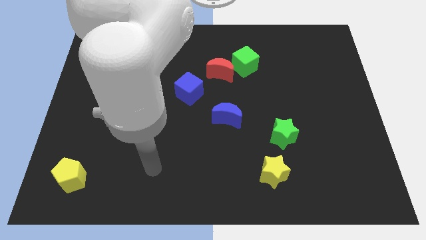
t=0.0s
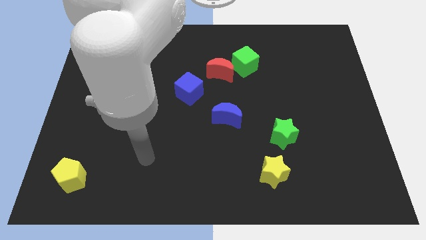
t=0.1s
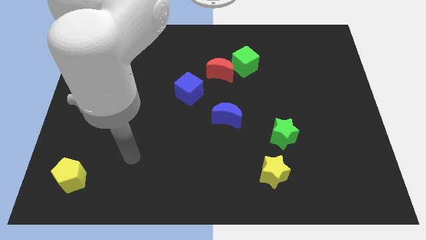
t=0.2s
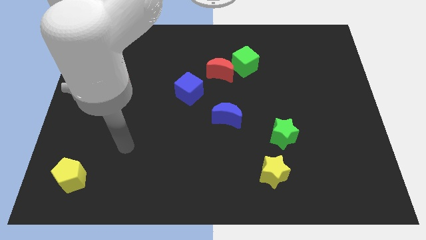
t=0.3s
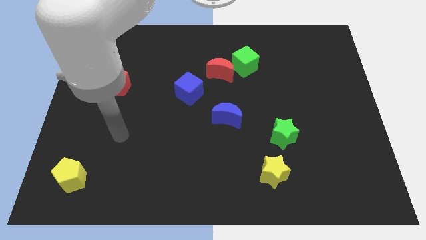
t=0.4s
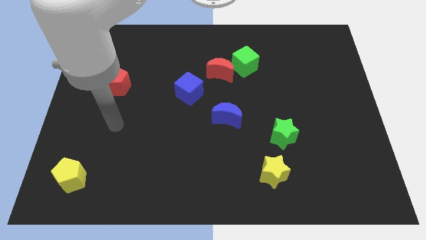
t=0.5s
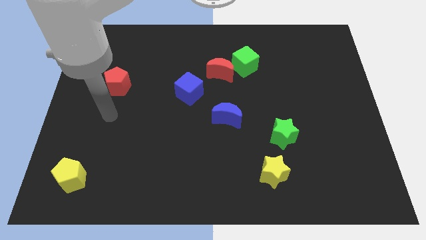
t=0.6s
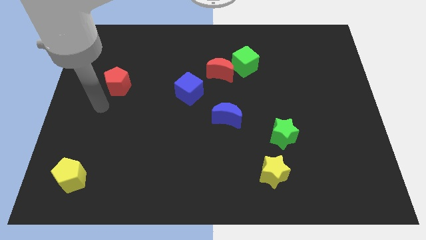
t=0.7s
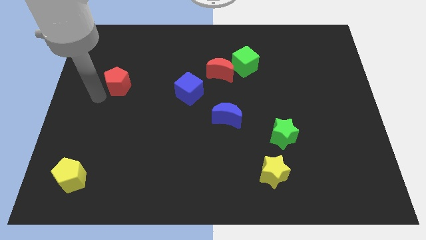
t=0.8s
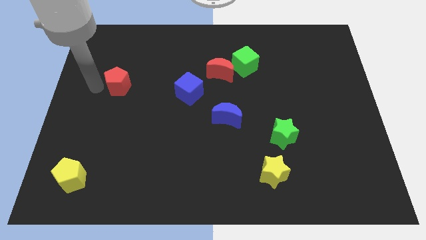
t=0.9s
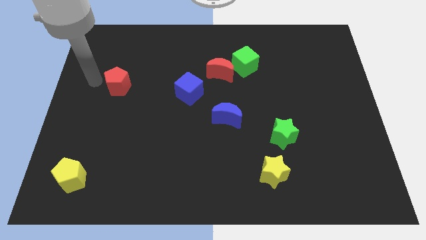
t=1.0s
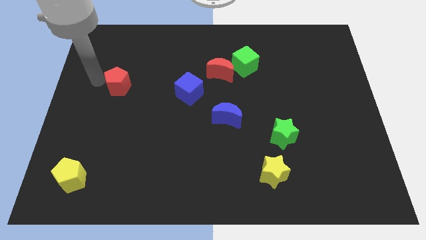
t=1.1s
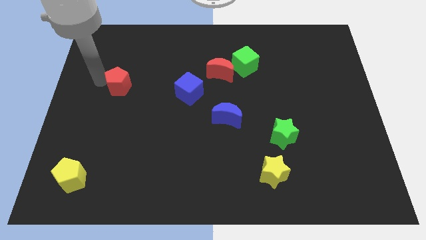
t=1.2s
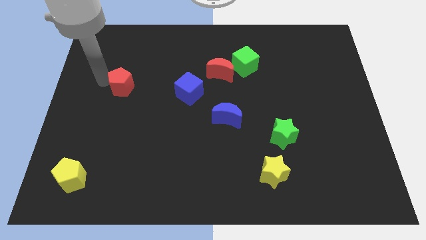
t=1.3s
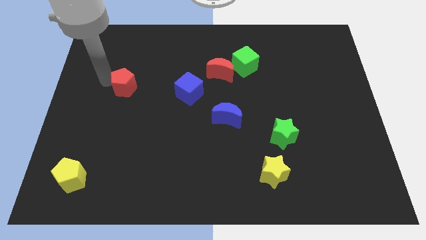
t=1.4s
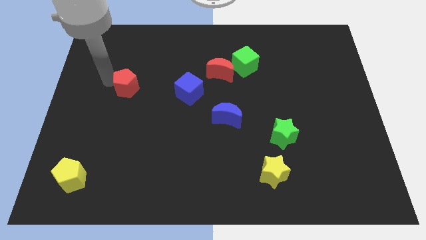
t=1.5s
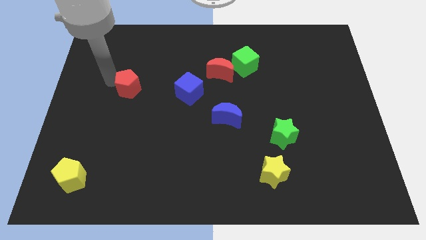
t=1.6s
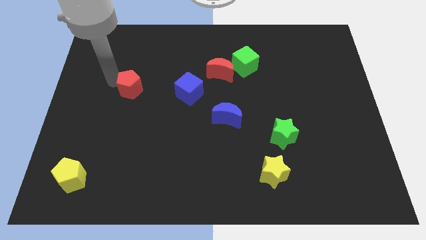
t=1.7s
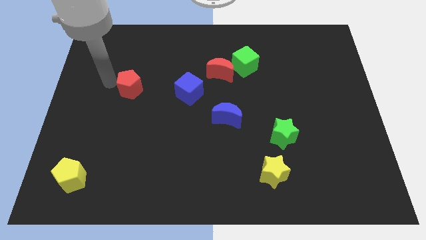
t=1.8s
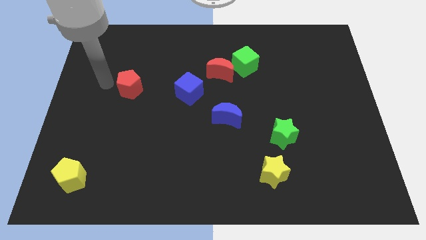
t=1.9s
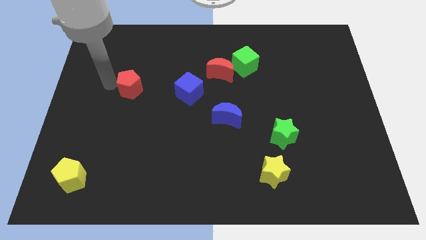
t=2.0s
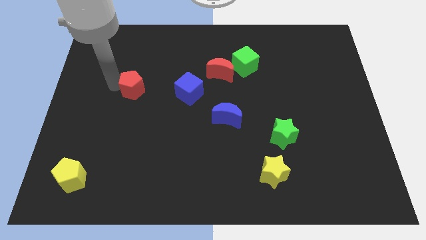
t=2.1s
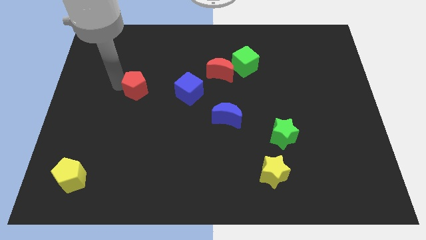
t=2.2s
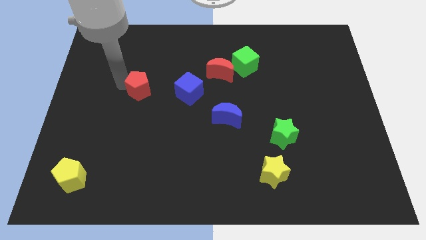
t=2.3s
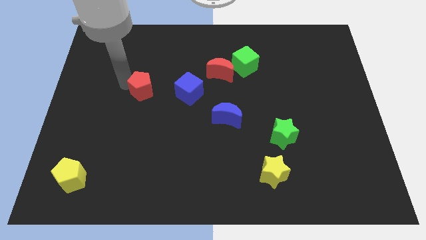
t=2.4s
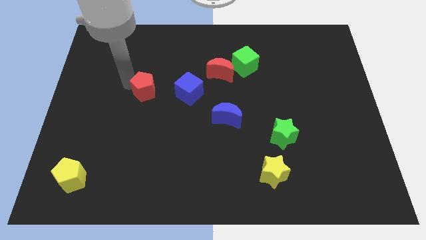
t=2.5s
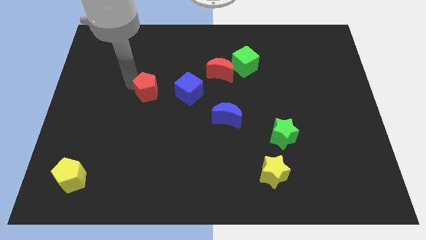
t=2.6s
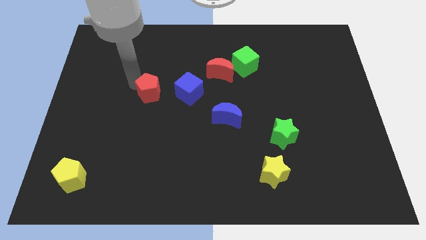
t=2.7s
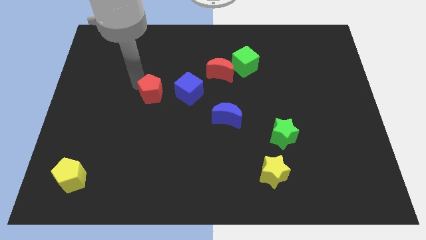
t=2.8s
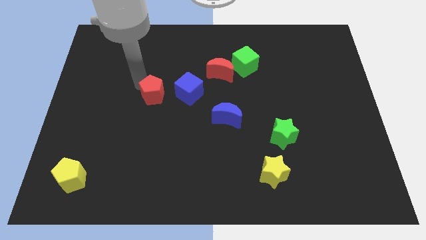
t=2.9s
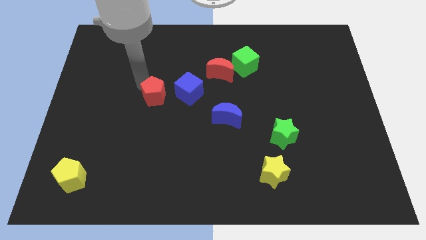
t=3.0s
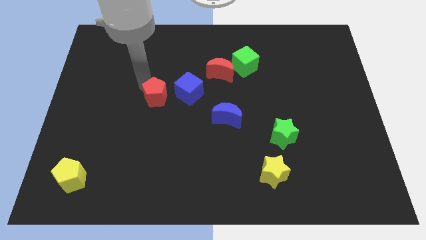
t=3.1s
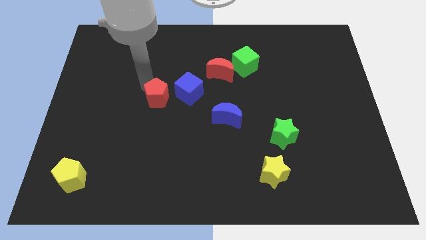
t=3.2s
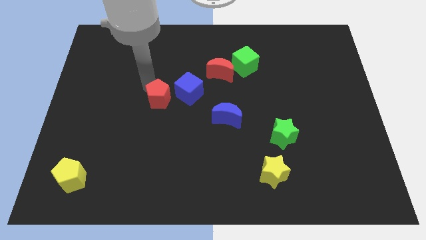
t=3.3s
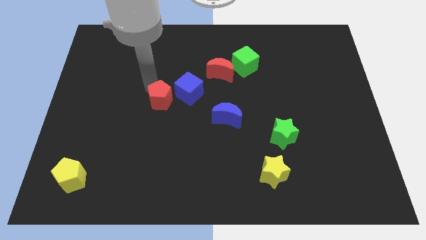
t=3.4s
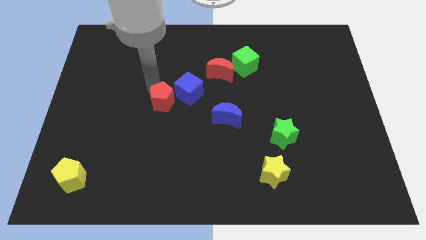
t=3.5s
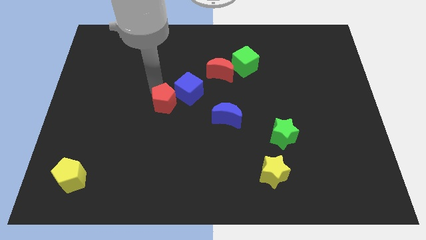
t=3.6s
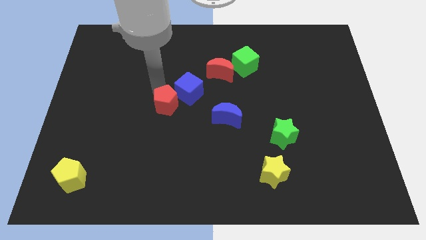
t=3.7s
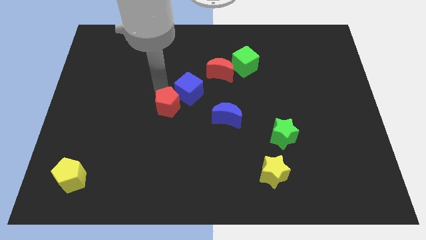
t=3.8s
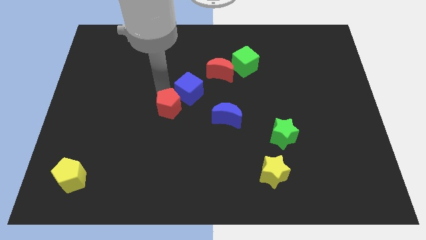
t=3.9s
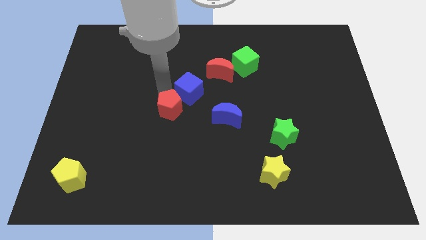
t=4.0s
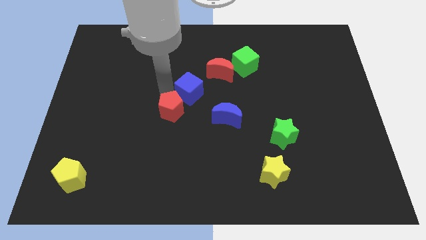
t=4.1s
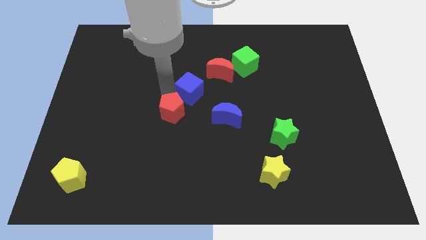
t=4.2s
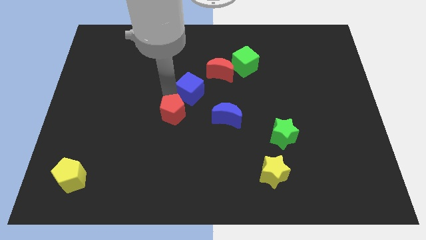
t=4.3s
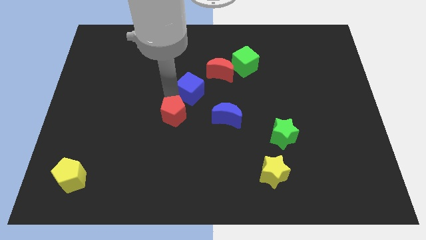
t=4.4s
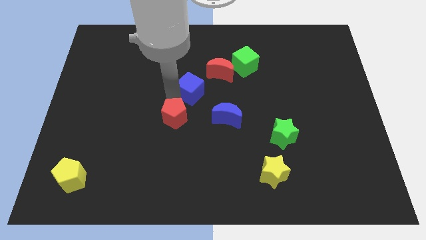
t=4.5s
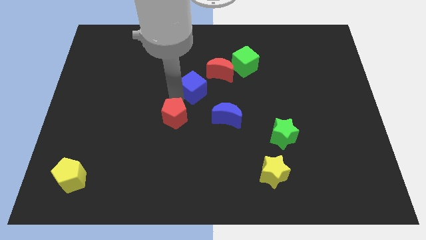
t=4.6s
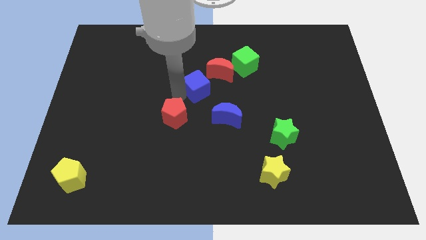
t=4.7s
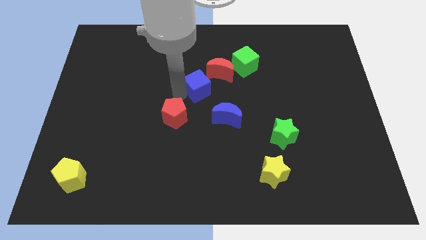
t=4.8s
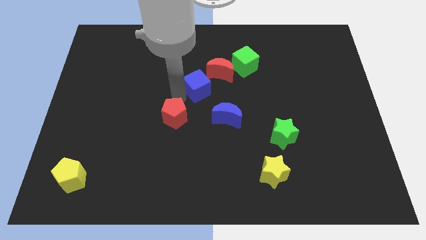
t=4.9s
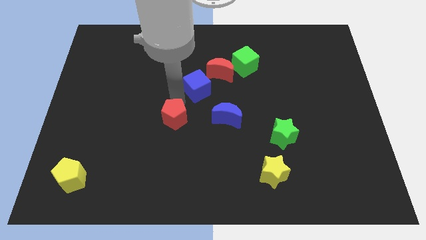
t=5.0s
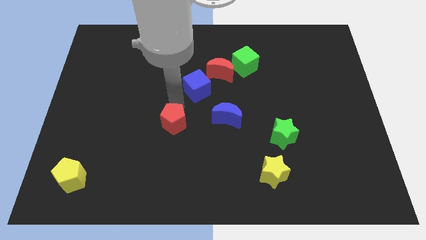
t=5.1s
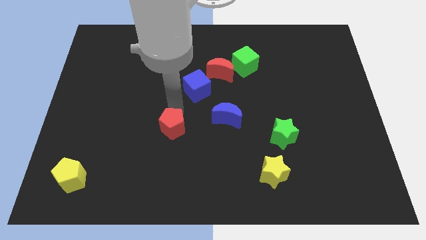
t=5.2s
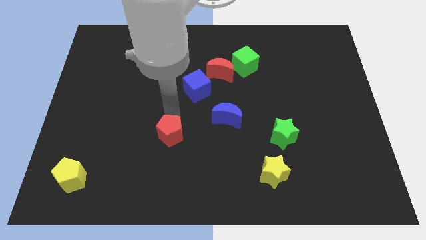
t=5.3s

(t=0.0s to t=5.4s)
push the red pentagon diagonally down and right

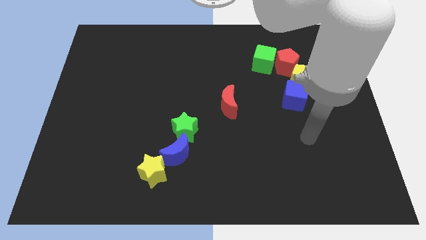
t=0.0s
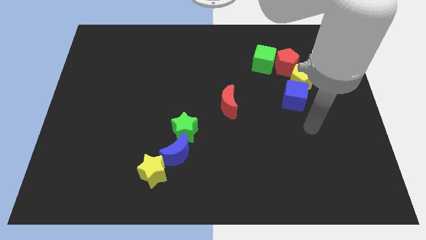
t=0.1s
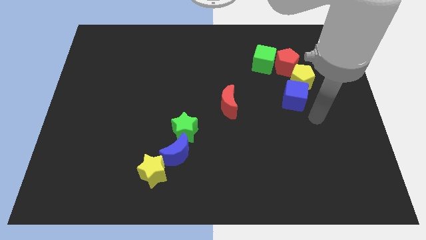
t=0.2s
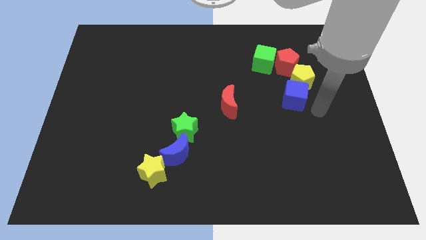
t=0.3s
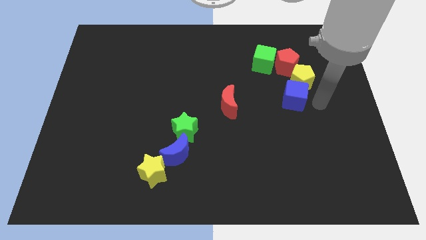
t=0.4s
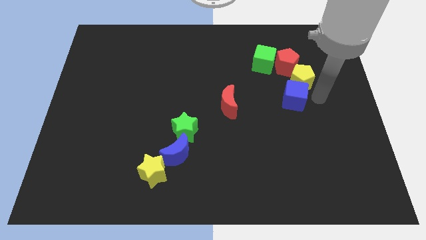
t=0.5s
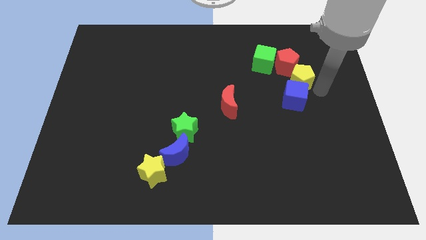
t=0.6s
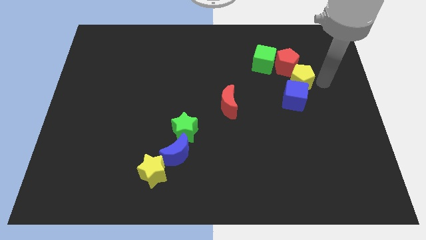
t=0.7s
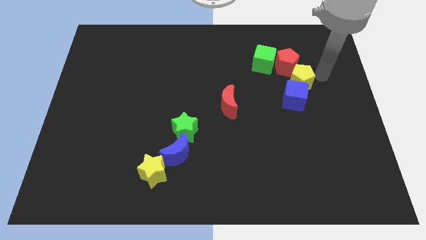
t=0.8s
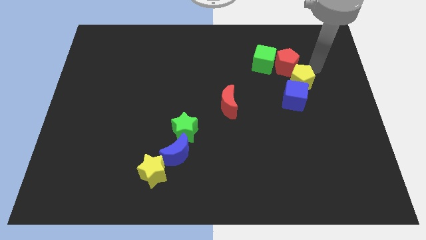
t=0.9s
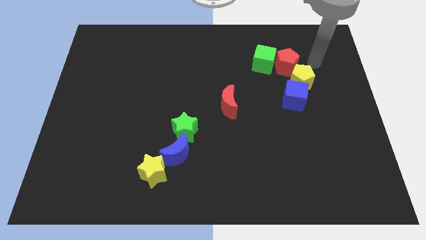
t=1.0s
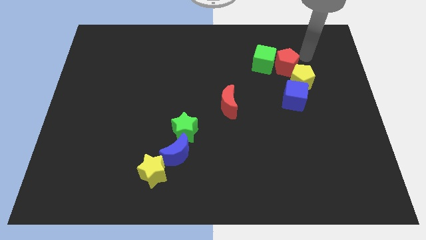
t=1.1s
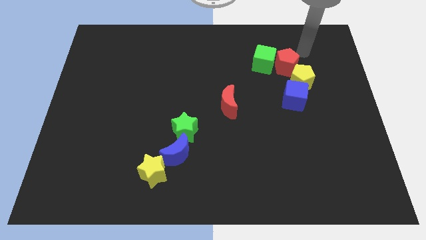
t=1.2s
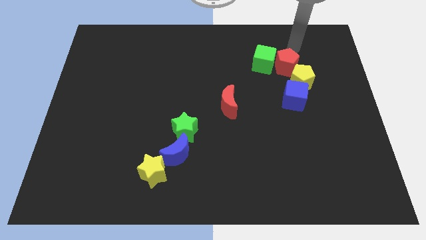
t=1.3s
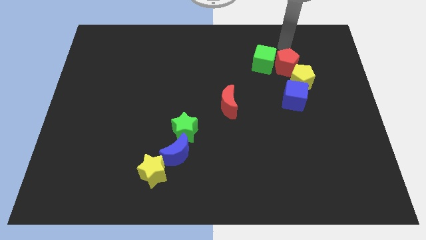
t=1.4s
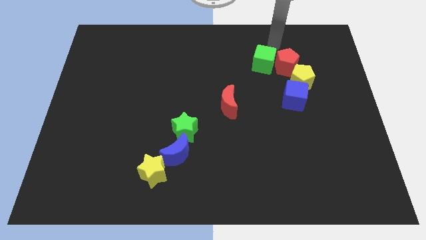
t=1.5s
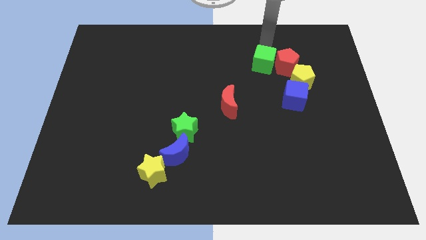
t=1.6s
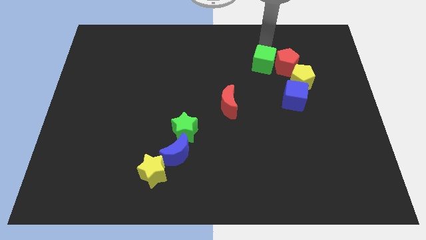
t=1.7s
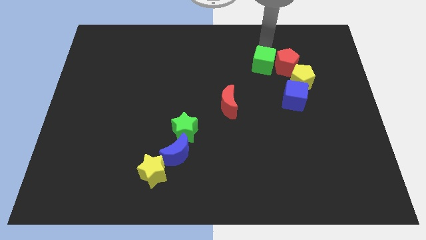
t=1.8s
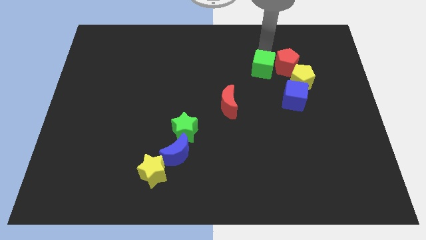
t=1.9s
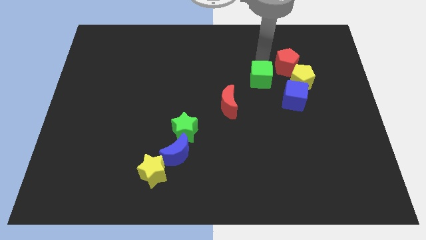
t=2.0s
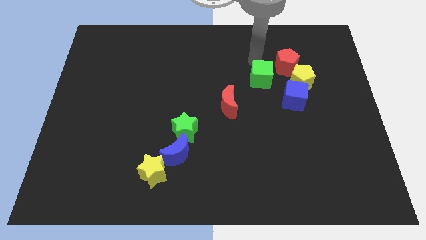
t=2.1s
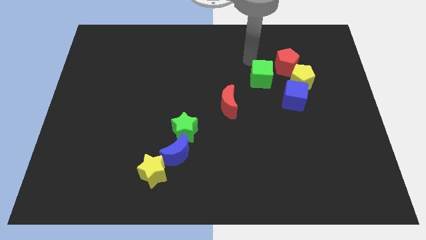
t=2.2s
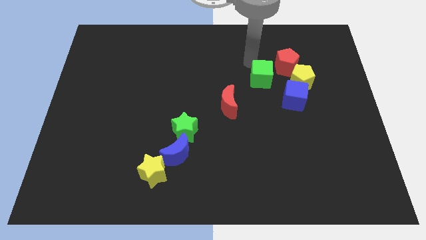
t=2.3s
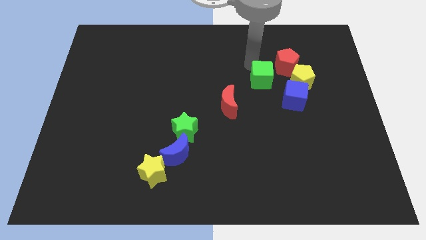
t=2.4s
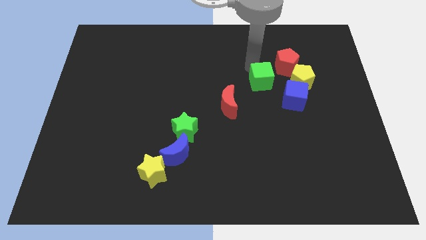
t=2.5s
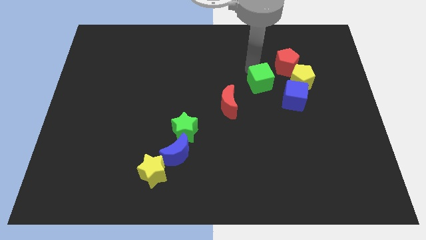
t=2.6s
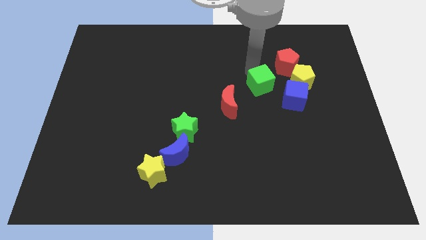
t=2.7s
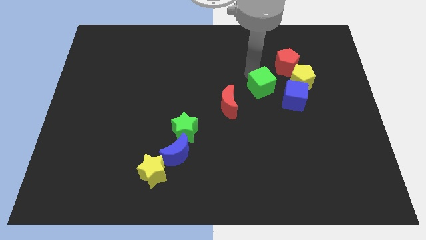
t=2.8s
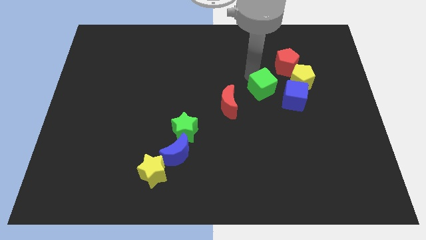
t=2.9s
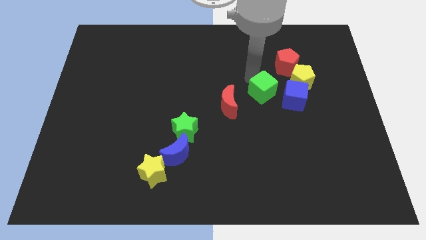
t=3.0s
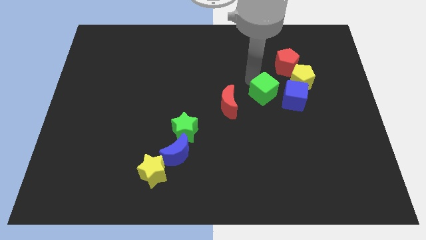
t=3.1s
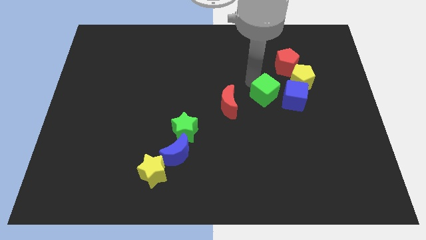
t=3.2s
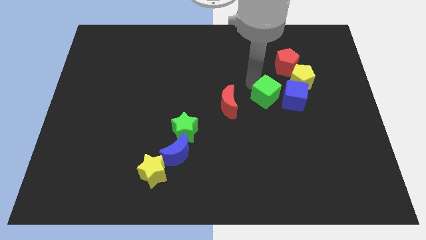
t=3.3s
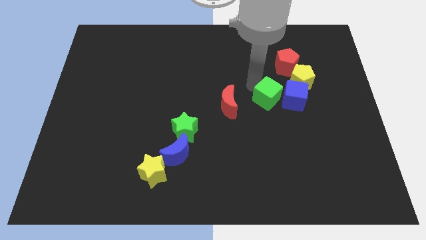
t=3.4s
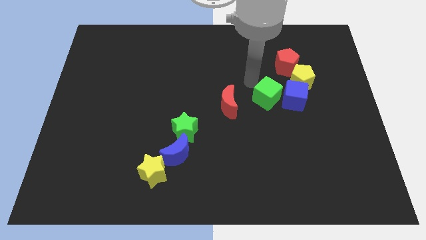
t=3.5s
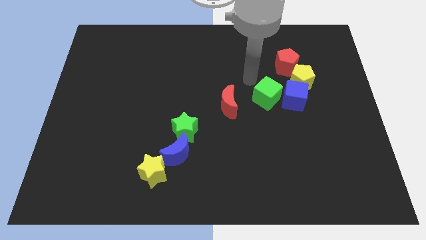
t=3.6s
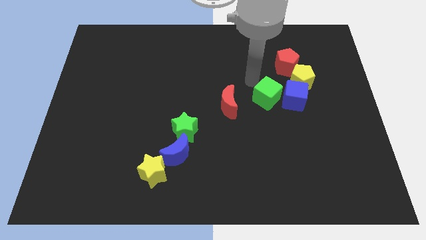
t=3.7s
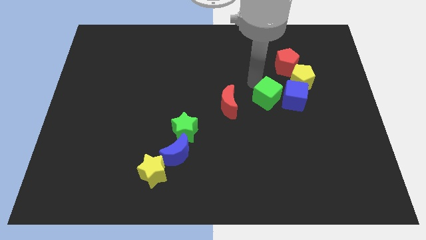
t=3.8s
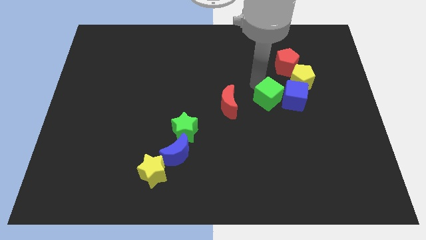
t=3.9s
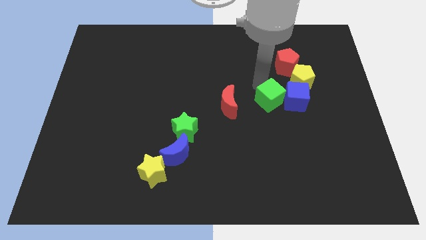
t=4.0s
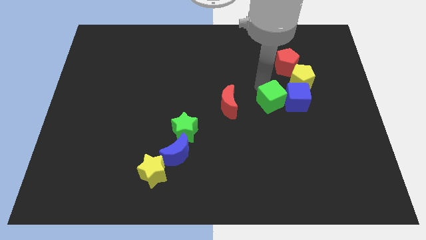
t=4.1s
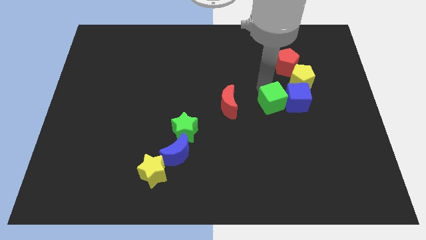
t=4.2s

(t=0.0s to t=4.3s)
slightly push the green cube diagonally down and right
